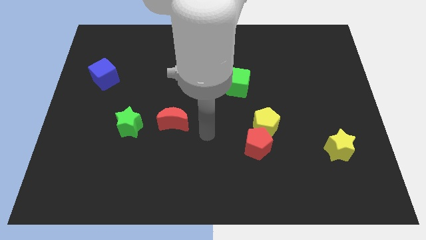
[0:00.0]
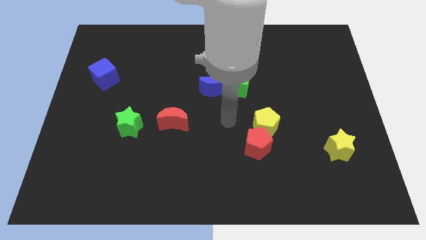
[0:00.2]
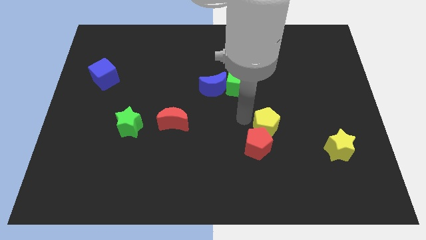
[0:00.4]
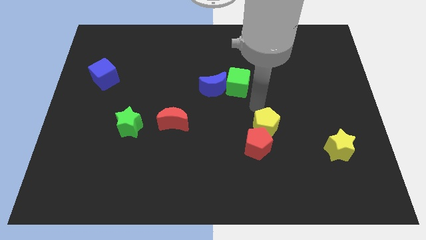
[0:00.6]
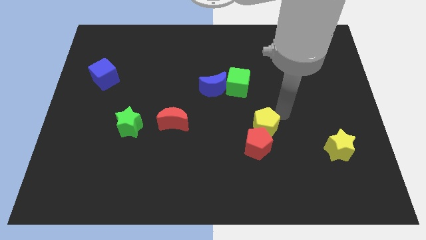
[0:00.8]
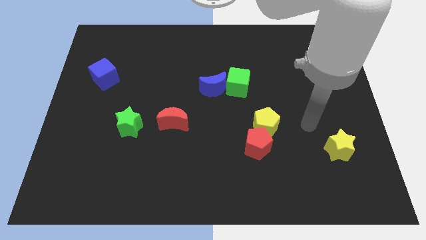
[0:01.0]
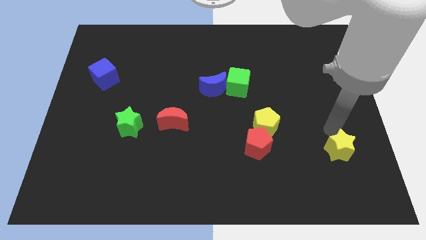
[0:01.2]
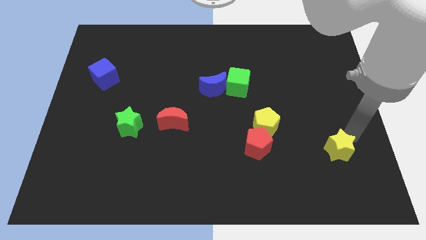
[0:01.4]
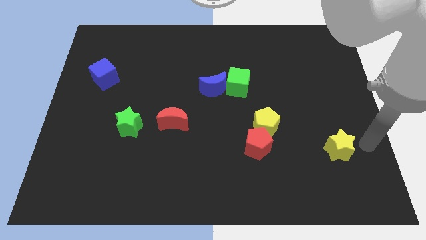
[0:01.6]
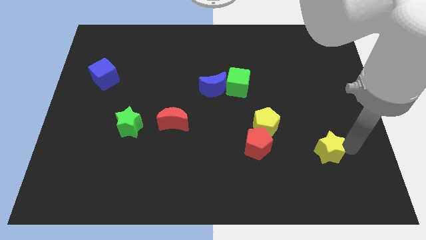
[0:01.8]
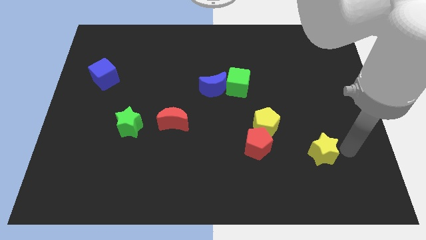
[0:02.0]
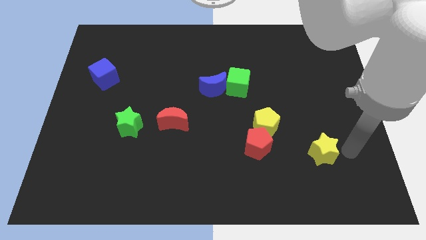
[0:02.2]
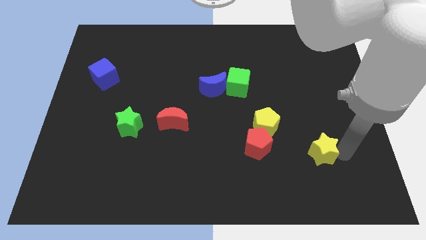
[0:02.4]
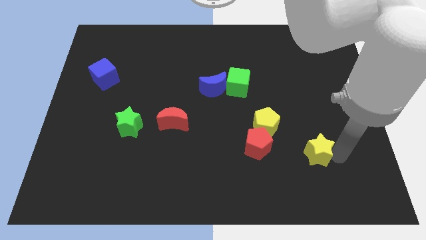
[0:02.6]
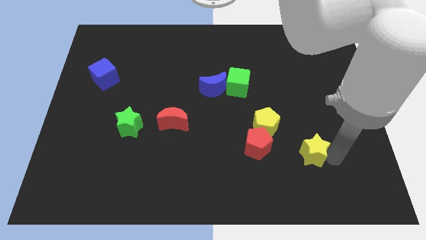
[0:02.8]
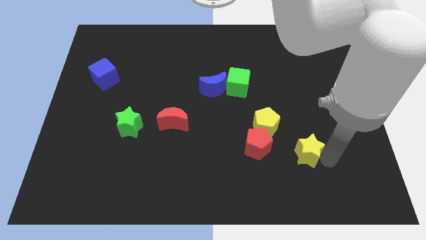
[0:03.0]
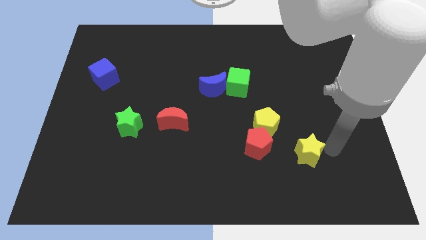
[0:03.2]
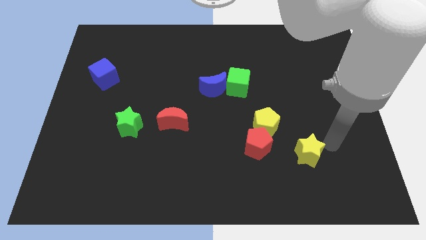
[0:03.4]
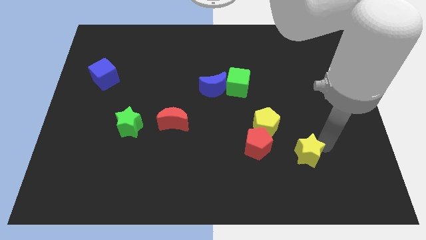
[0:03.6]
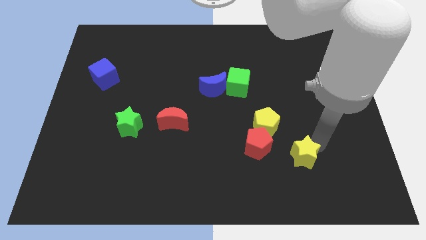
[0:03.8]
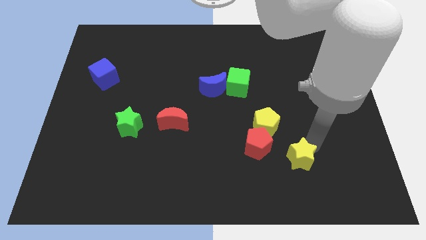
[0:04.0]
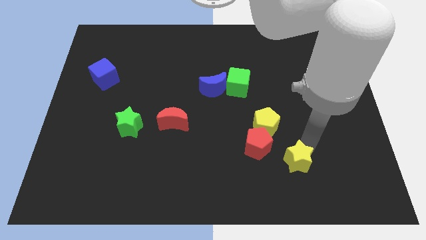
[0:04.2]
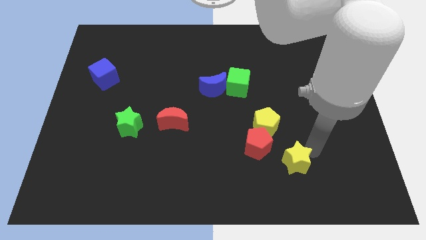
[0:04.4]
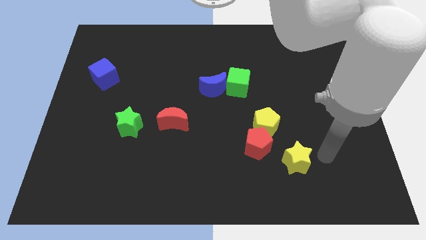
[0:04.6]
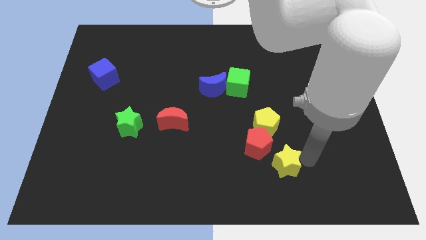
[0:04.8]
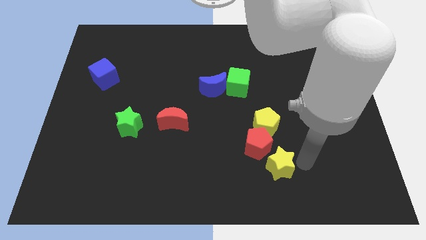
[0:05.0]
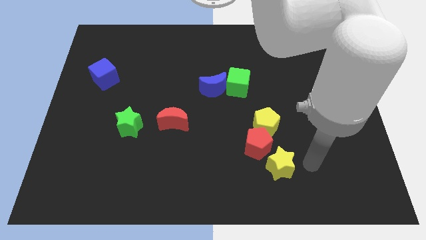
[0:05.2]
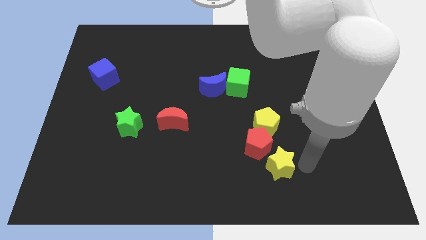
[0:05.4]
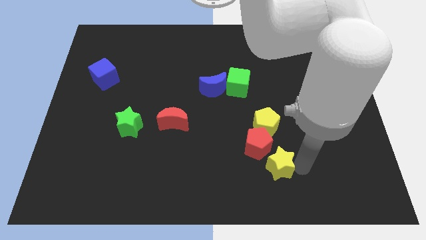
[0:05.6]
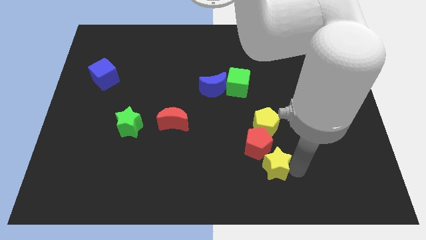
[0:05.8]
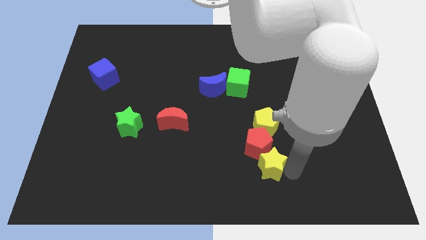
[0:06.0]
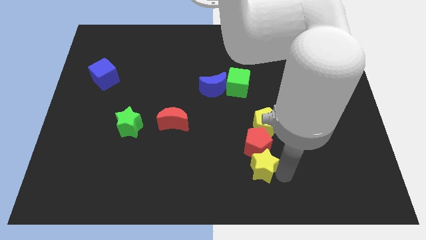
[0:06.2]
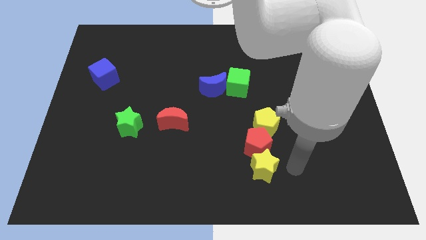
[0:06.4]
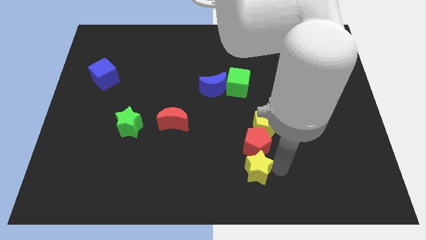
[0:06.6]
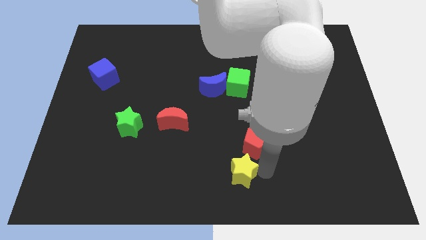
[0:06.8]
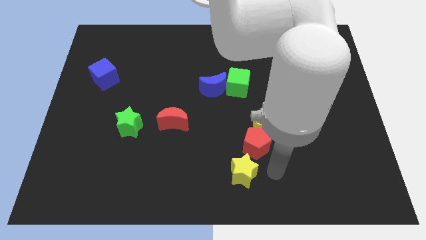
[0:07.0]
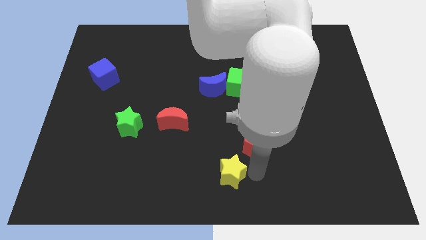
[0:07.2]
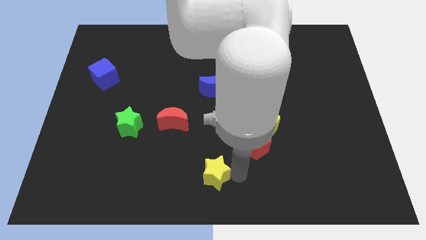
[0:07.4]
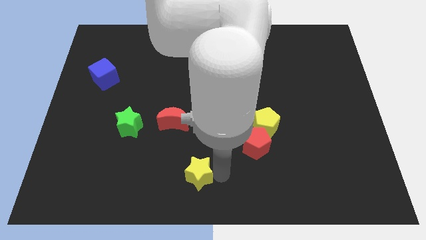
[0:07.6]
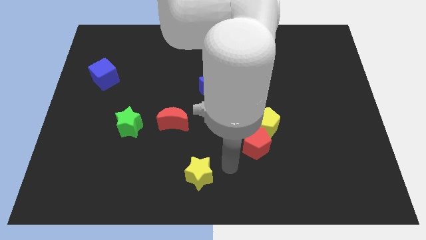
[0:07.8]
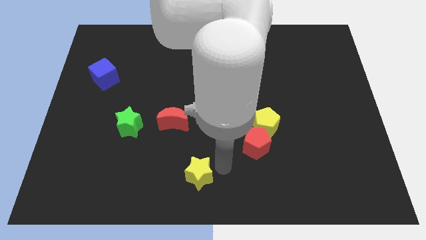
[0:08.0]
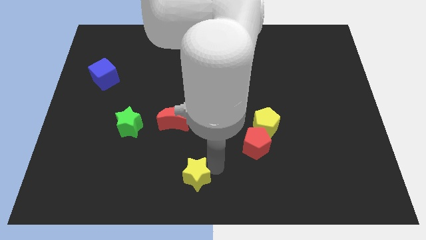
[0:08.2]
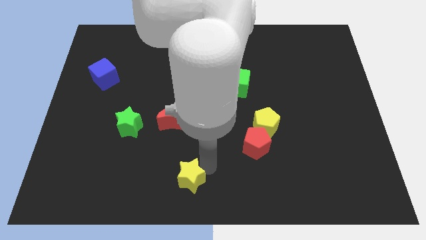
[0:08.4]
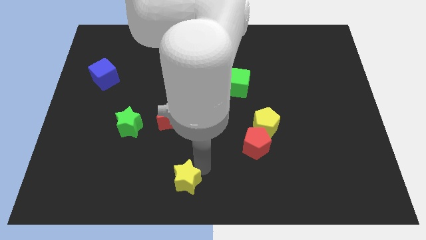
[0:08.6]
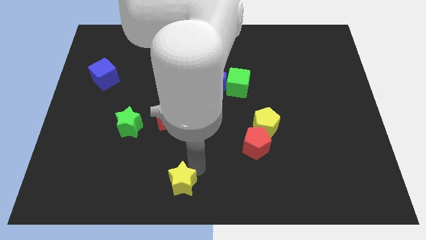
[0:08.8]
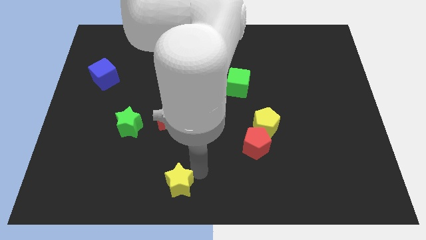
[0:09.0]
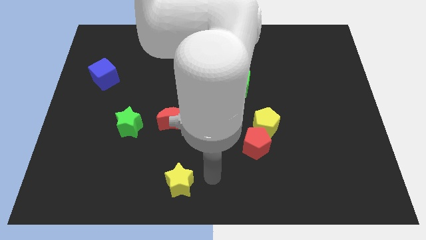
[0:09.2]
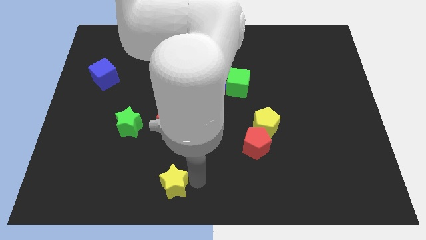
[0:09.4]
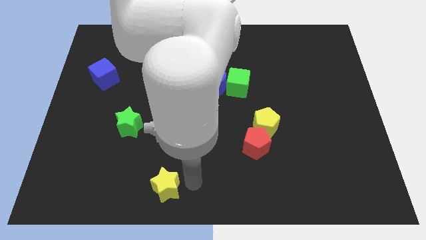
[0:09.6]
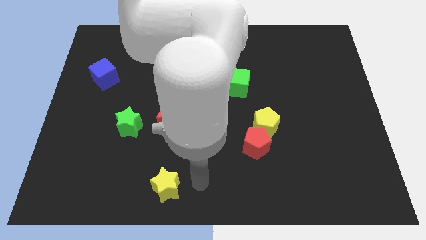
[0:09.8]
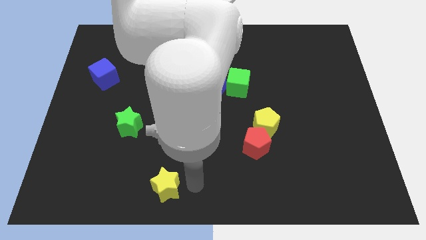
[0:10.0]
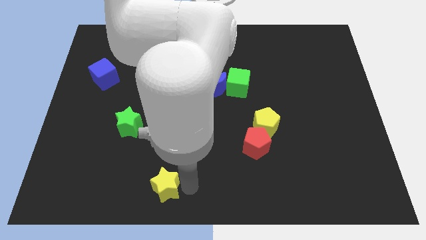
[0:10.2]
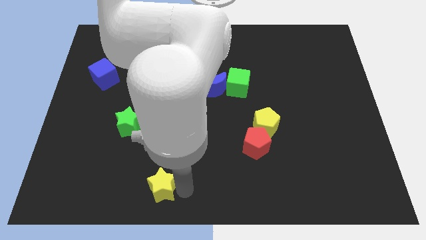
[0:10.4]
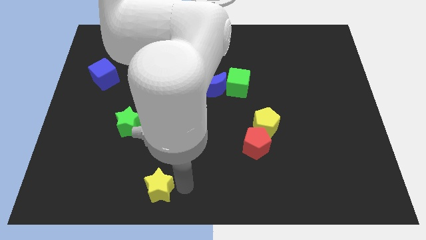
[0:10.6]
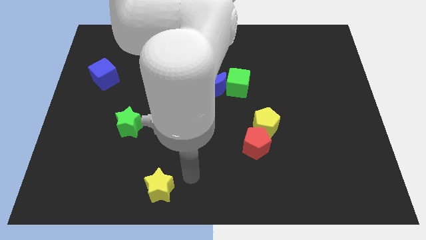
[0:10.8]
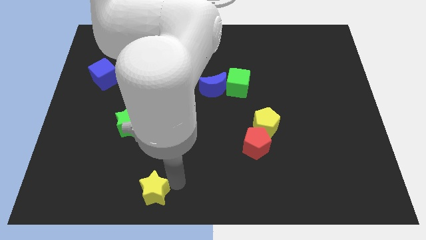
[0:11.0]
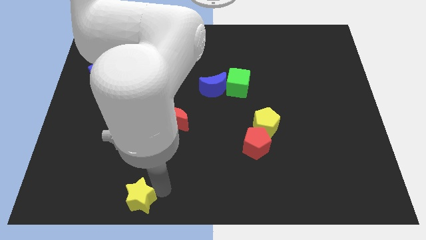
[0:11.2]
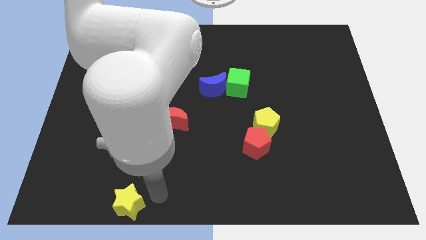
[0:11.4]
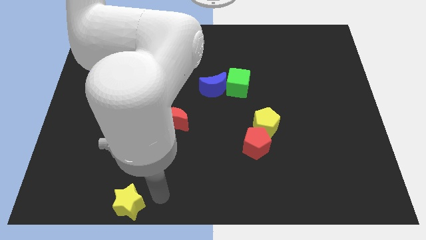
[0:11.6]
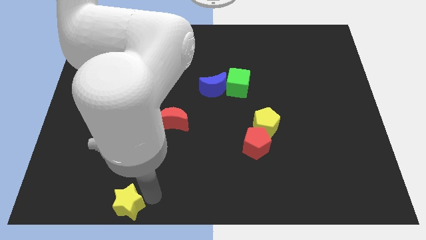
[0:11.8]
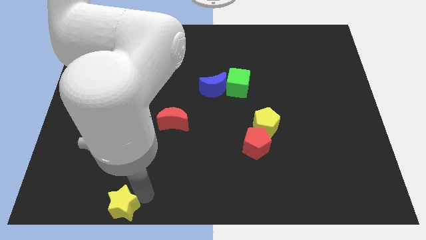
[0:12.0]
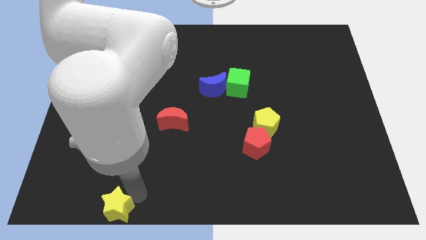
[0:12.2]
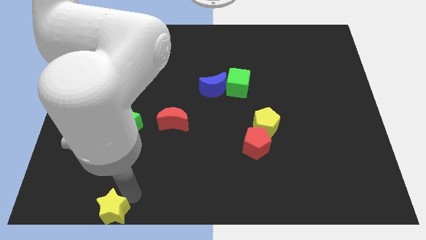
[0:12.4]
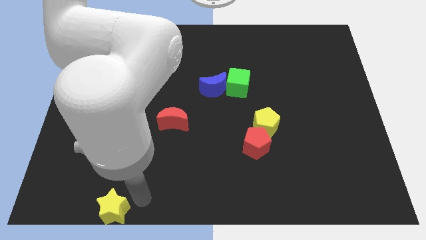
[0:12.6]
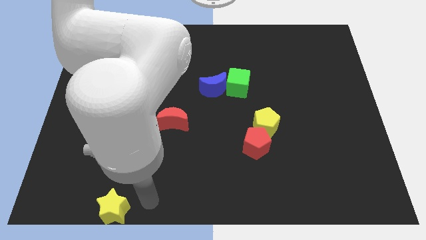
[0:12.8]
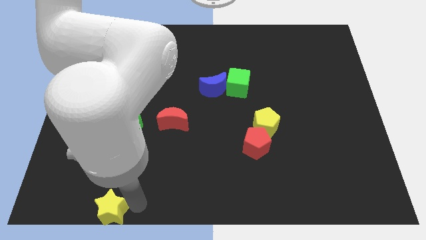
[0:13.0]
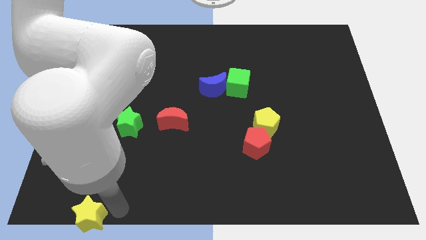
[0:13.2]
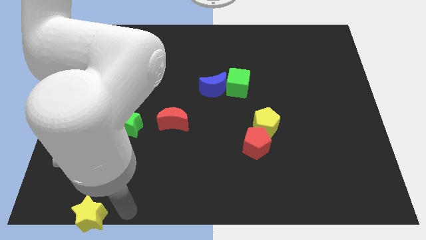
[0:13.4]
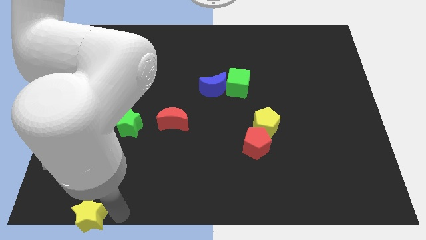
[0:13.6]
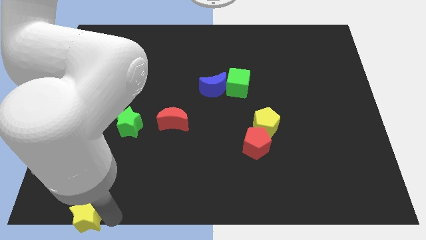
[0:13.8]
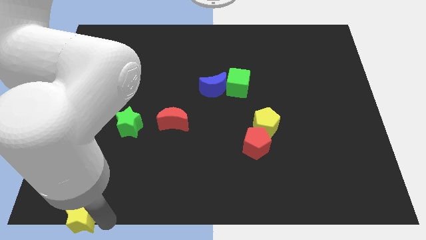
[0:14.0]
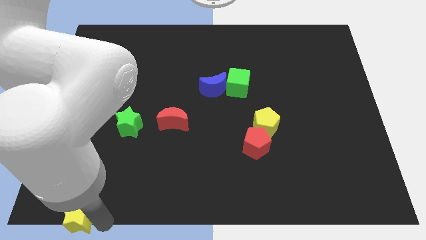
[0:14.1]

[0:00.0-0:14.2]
push the yellow star to the bottom left
